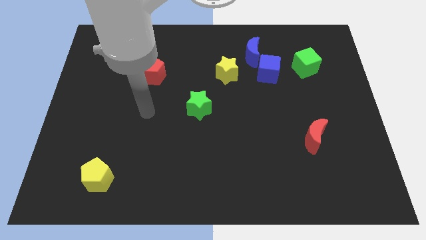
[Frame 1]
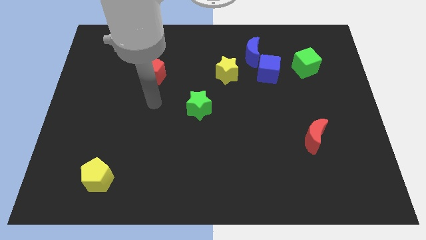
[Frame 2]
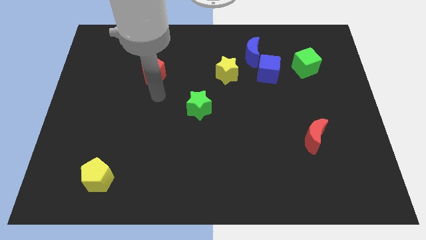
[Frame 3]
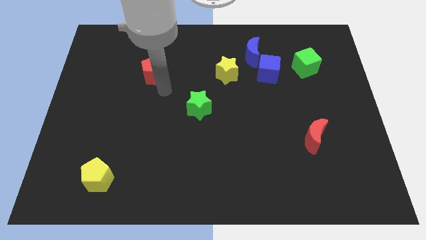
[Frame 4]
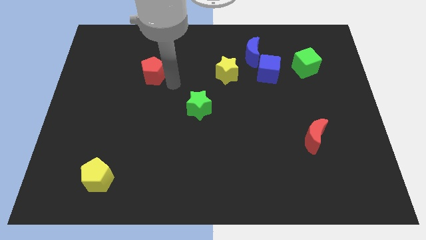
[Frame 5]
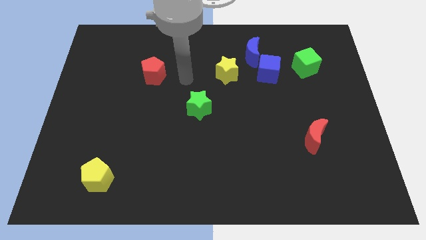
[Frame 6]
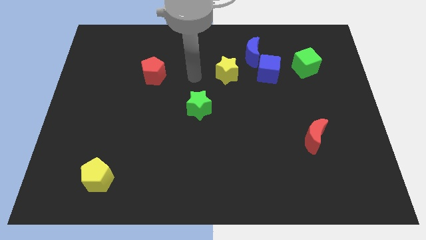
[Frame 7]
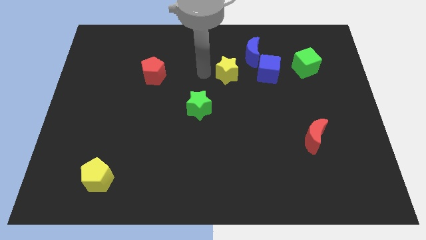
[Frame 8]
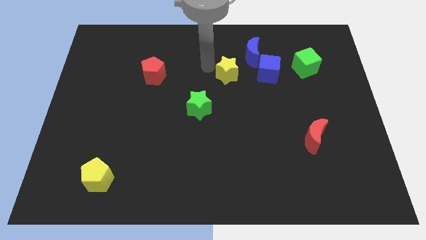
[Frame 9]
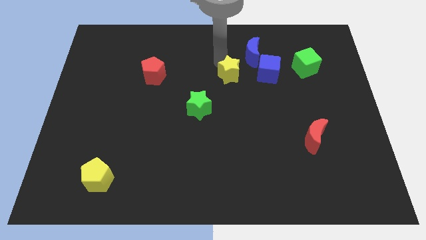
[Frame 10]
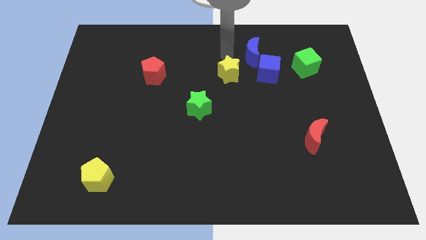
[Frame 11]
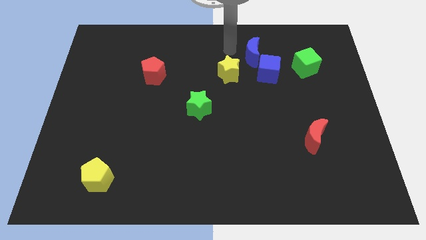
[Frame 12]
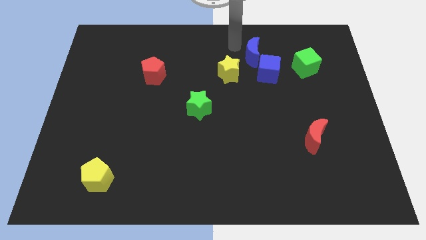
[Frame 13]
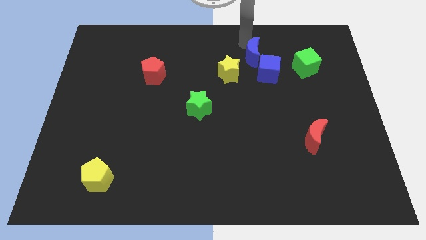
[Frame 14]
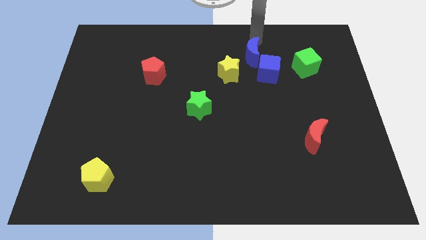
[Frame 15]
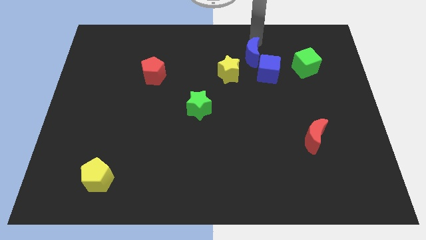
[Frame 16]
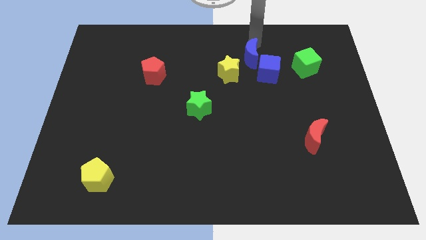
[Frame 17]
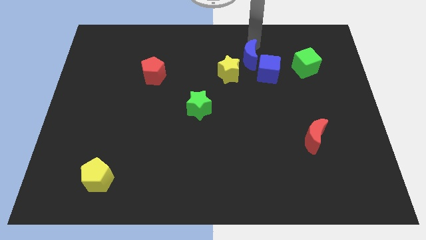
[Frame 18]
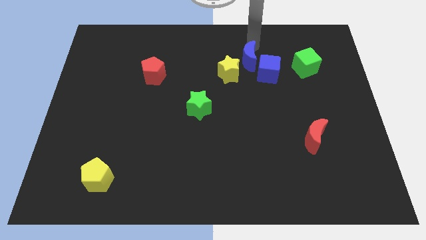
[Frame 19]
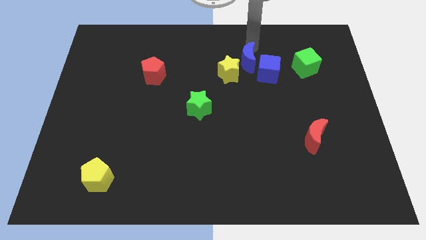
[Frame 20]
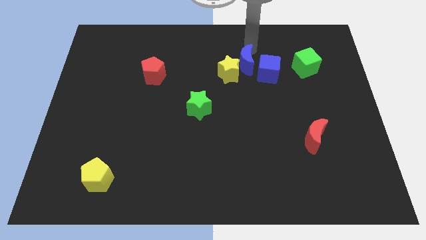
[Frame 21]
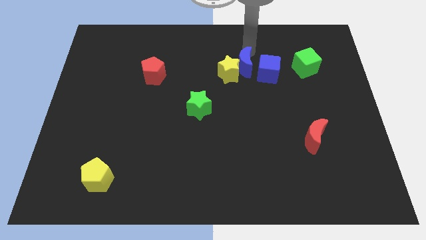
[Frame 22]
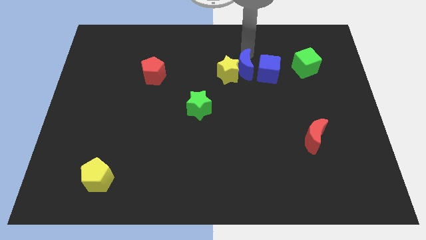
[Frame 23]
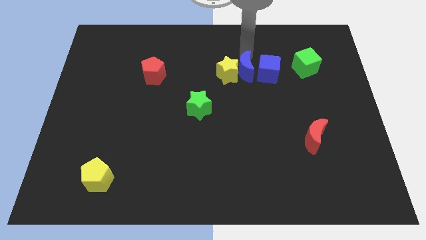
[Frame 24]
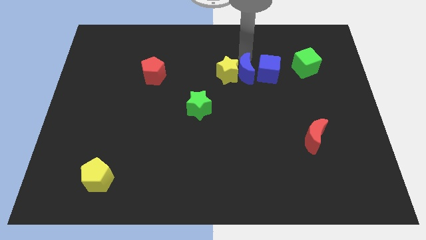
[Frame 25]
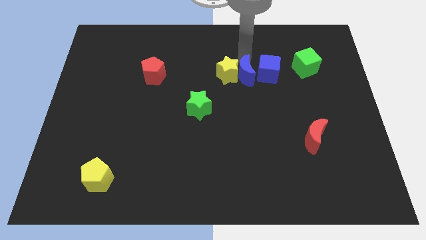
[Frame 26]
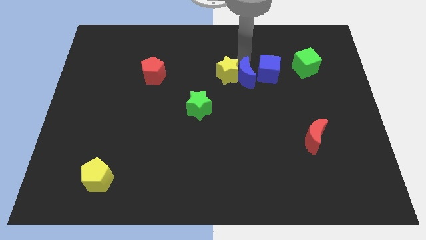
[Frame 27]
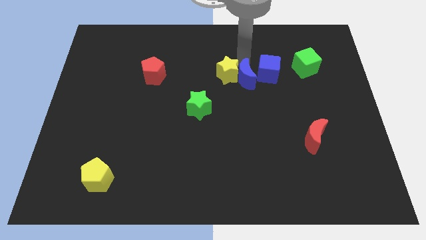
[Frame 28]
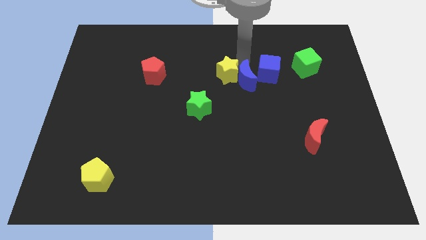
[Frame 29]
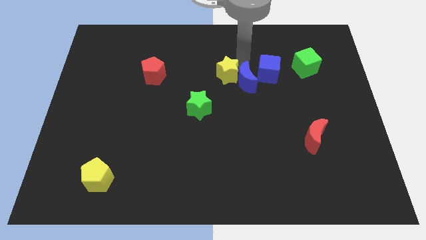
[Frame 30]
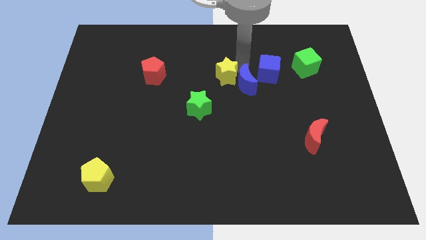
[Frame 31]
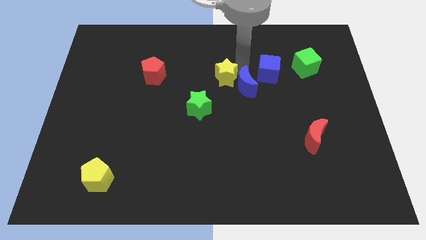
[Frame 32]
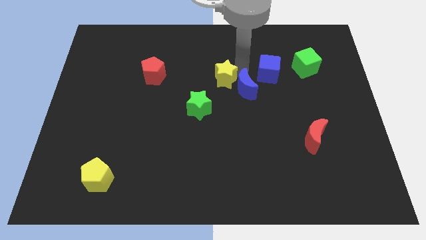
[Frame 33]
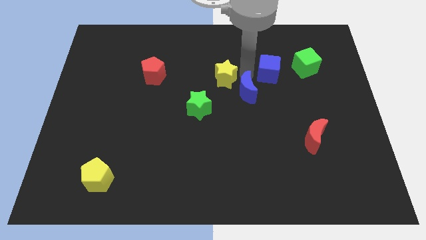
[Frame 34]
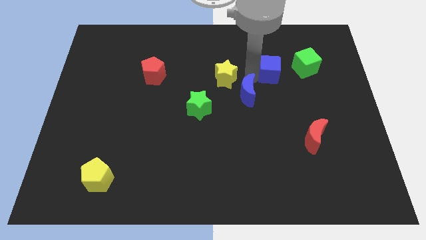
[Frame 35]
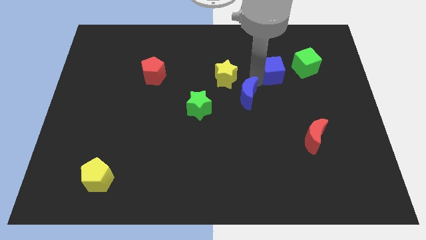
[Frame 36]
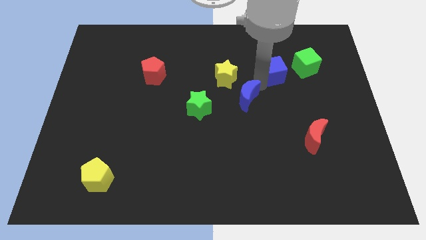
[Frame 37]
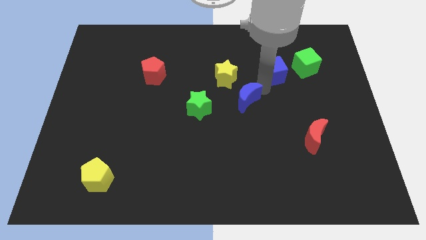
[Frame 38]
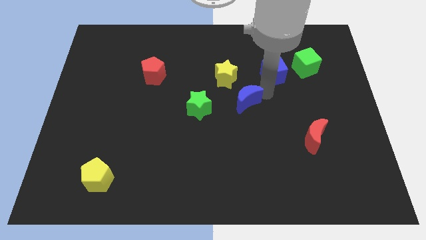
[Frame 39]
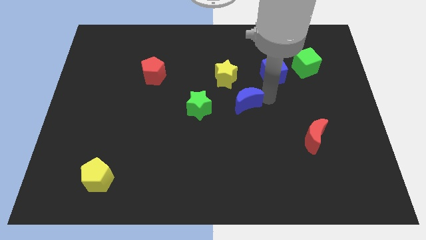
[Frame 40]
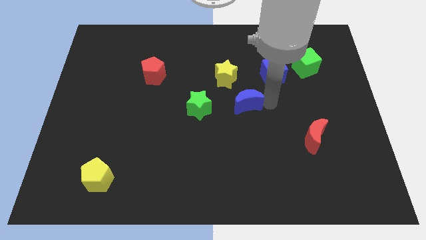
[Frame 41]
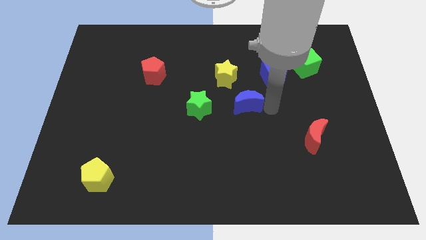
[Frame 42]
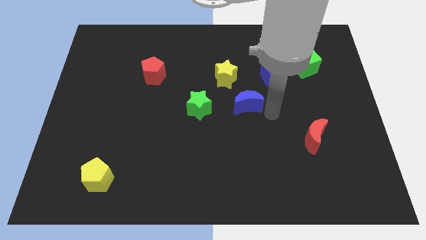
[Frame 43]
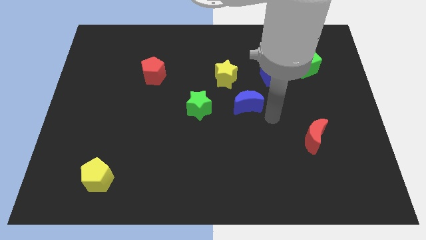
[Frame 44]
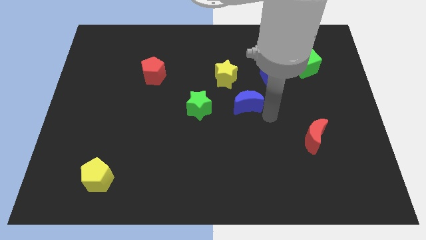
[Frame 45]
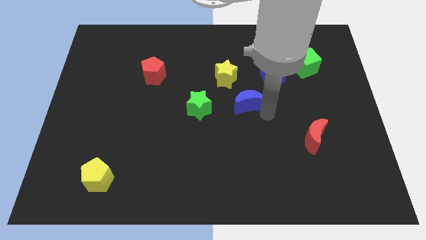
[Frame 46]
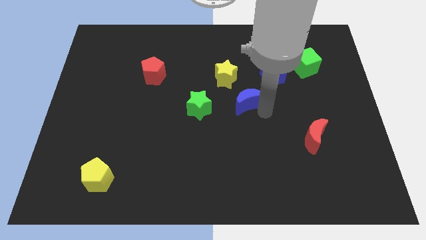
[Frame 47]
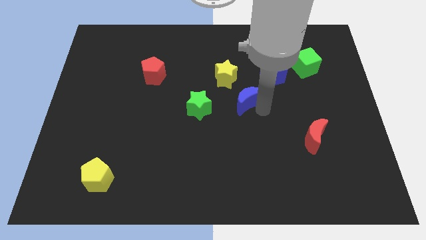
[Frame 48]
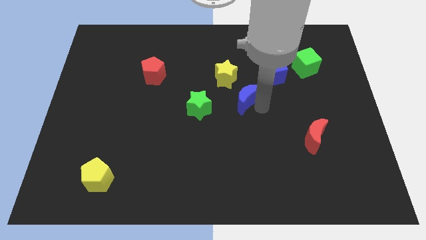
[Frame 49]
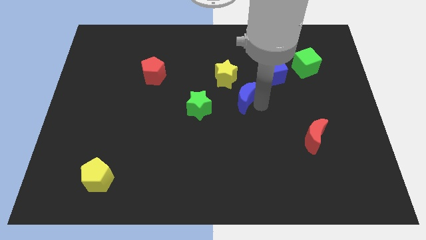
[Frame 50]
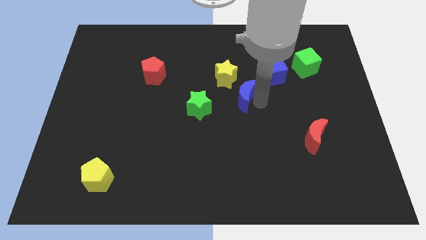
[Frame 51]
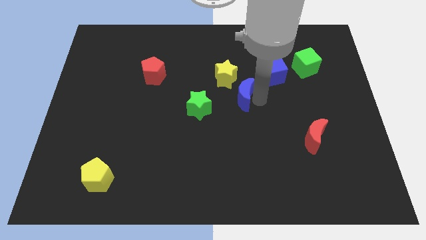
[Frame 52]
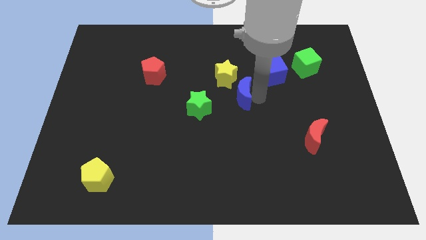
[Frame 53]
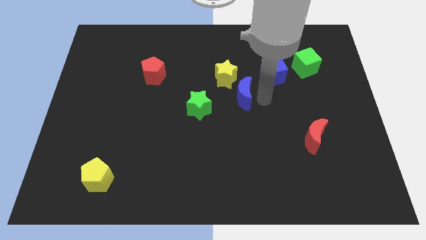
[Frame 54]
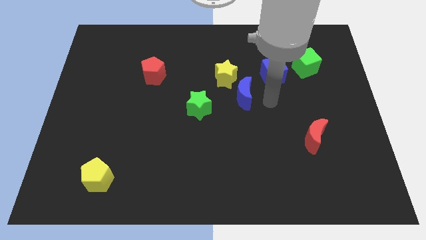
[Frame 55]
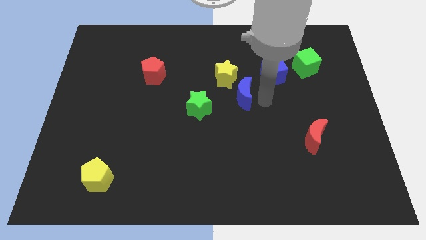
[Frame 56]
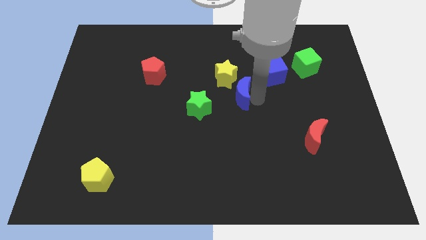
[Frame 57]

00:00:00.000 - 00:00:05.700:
put the blue moon diagonally up and to the right of the green star
